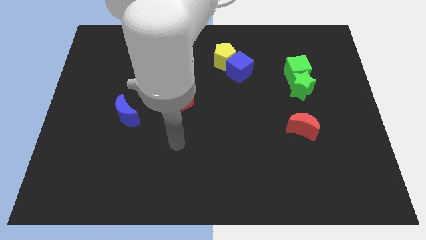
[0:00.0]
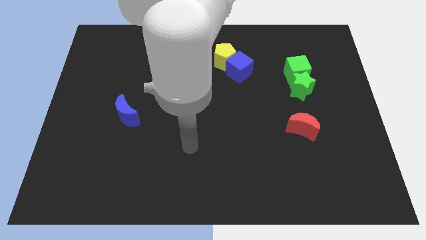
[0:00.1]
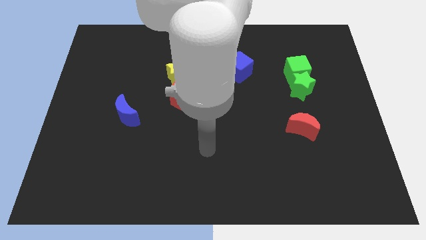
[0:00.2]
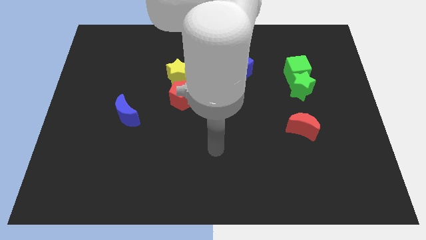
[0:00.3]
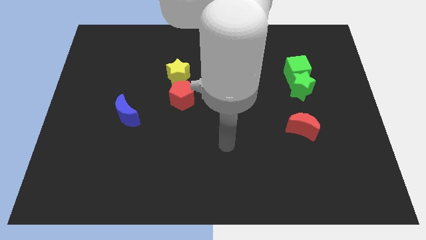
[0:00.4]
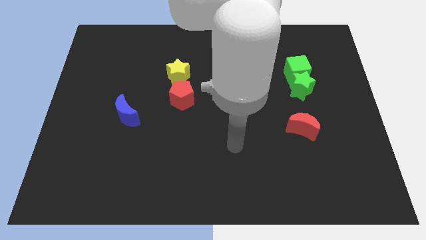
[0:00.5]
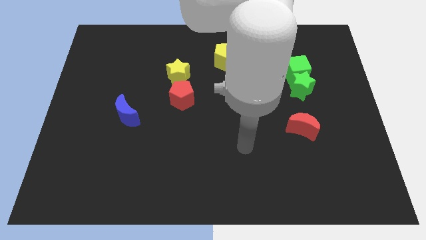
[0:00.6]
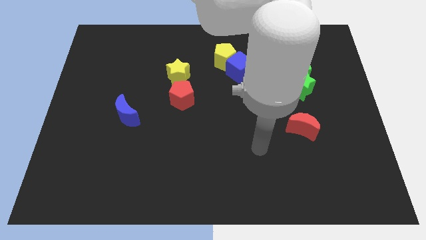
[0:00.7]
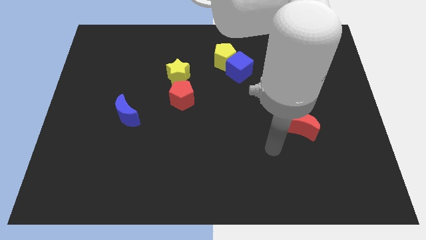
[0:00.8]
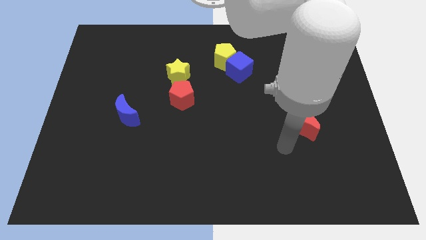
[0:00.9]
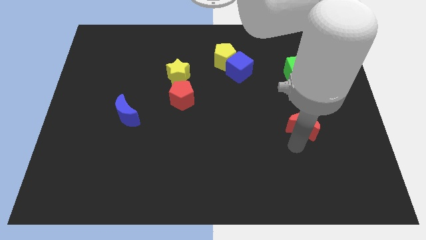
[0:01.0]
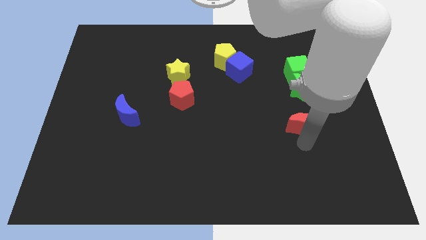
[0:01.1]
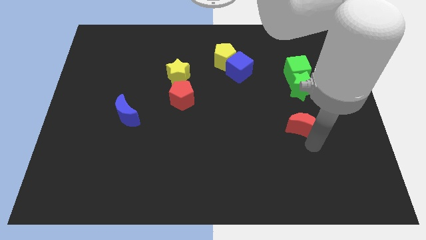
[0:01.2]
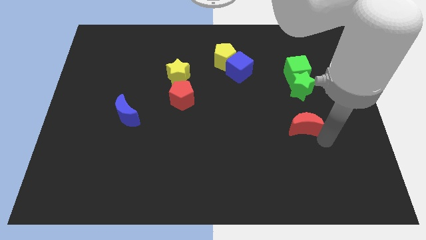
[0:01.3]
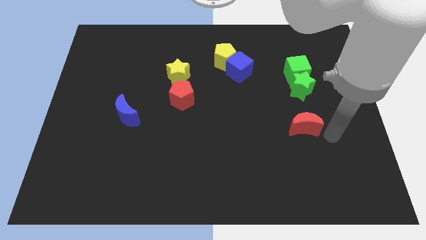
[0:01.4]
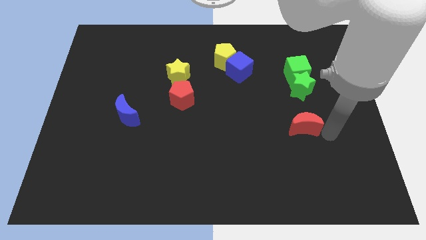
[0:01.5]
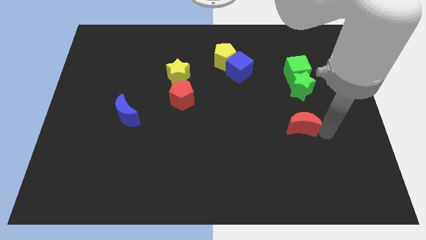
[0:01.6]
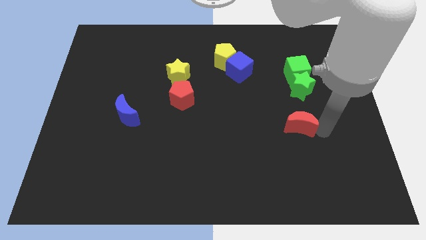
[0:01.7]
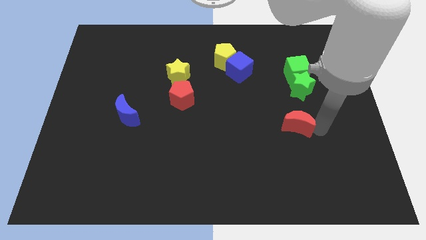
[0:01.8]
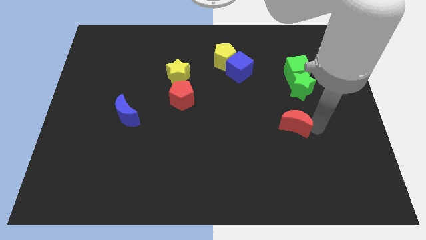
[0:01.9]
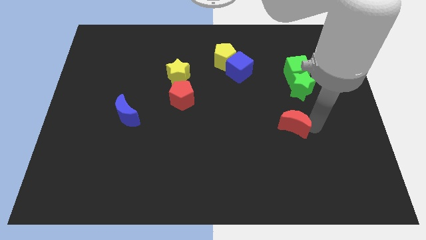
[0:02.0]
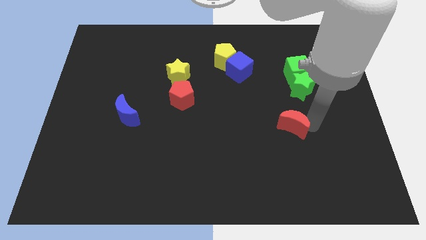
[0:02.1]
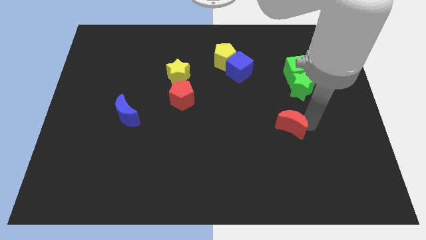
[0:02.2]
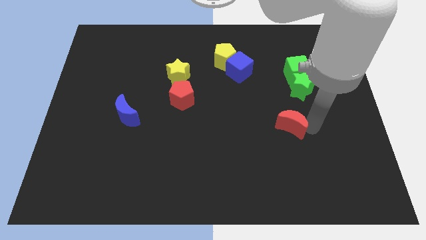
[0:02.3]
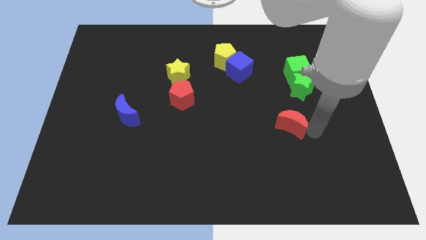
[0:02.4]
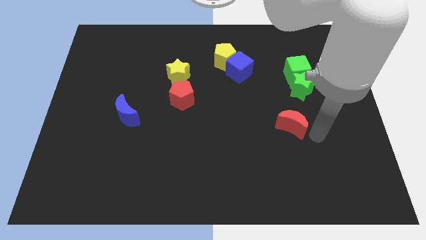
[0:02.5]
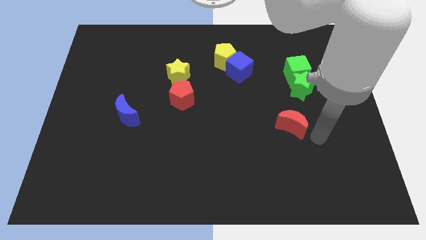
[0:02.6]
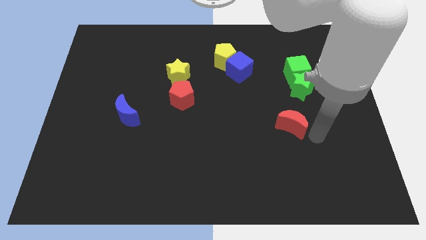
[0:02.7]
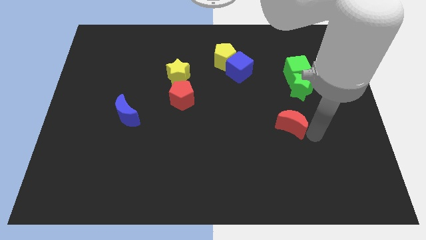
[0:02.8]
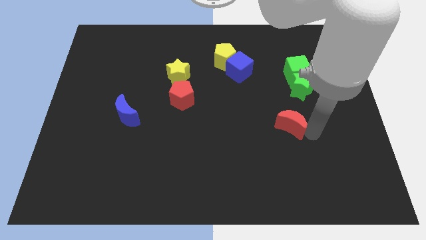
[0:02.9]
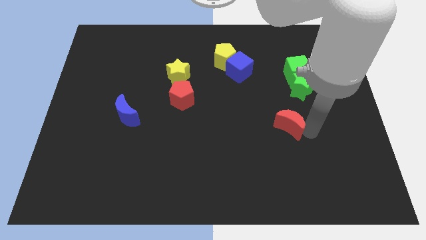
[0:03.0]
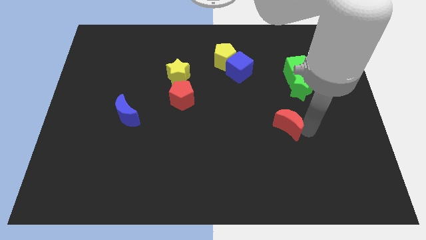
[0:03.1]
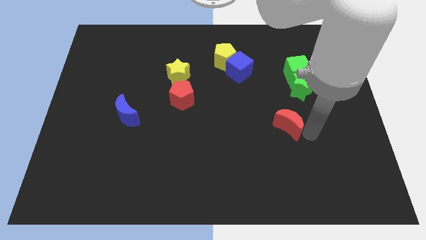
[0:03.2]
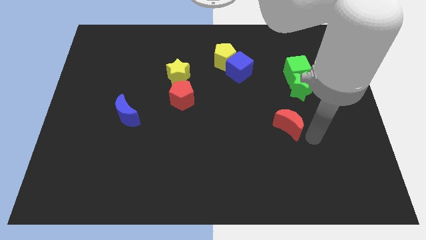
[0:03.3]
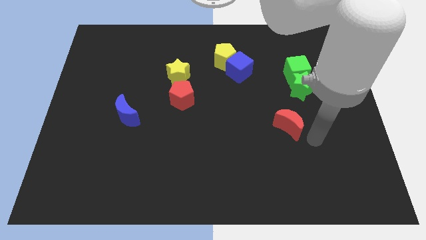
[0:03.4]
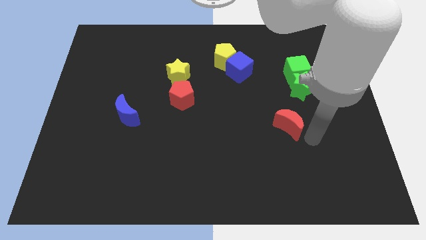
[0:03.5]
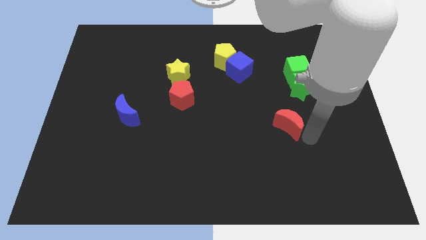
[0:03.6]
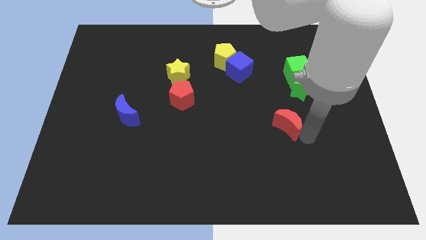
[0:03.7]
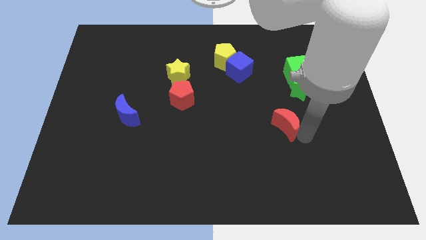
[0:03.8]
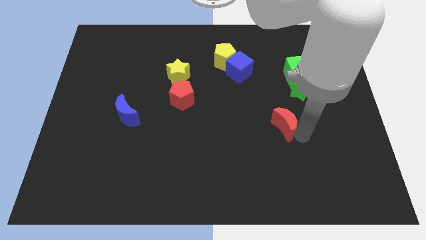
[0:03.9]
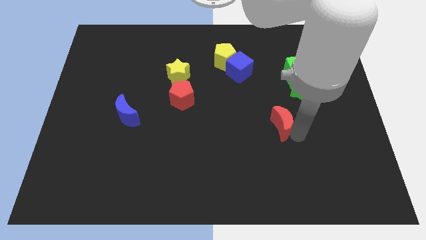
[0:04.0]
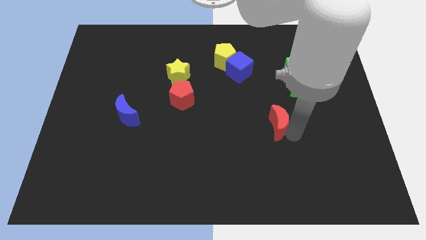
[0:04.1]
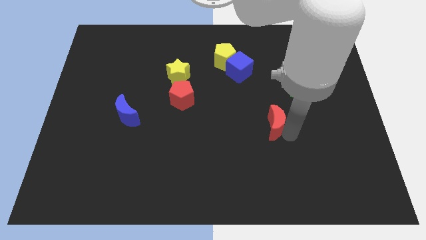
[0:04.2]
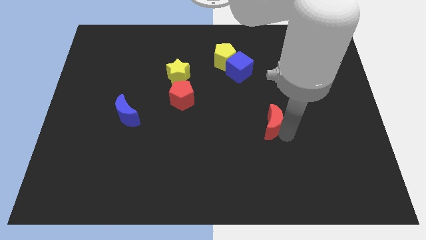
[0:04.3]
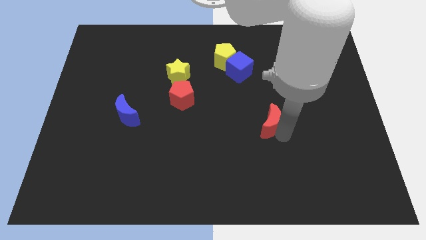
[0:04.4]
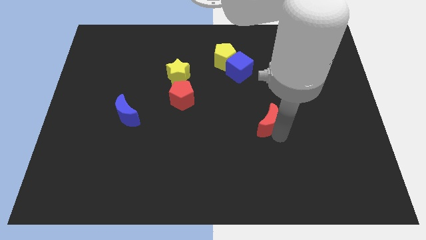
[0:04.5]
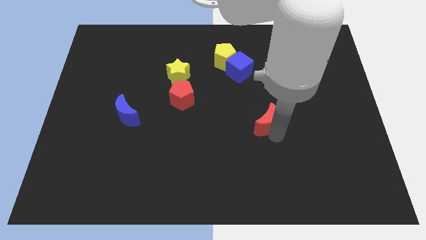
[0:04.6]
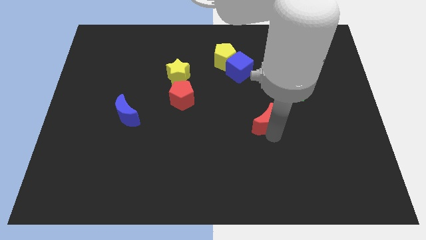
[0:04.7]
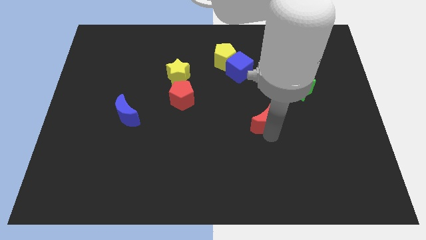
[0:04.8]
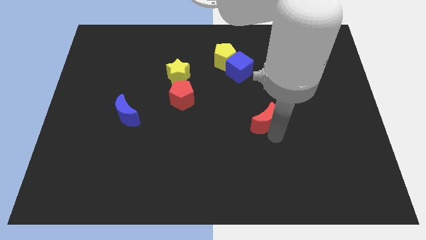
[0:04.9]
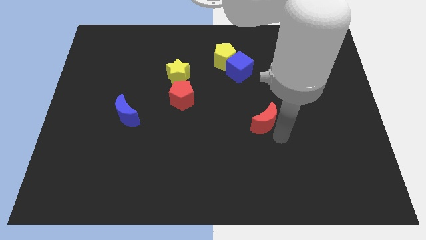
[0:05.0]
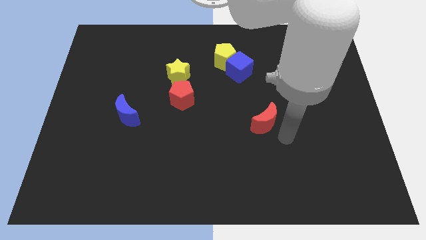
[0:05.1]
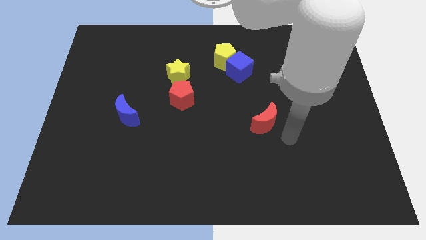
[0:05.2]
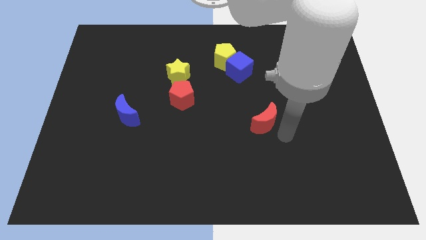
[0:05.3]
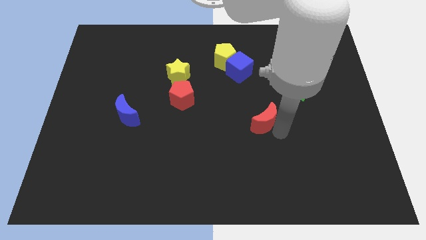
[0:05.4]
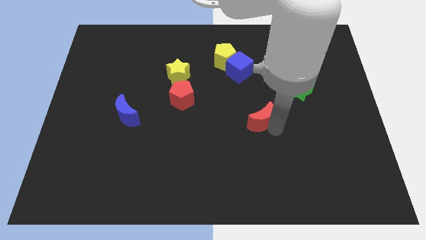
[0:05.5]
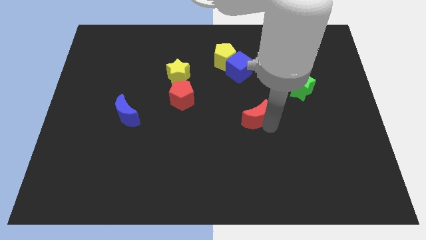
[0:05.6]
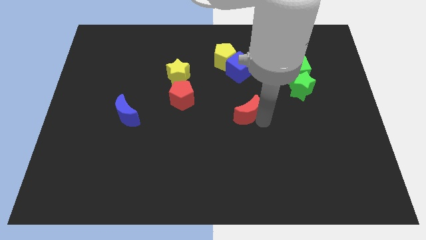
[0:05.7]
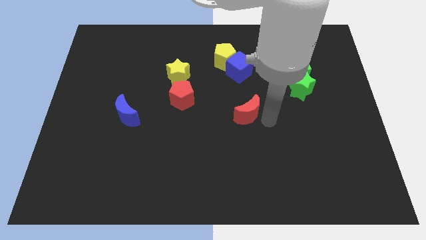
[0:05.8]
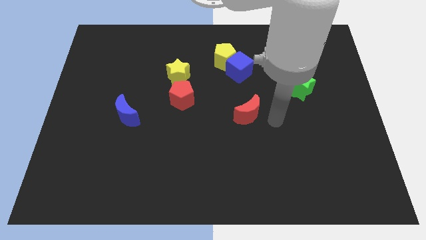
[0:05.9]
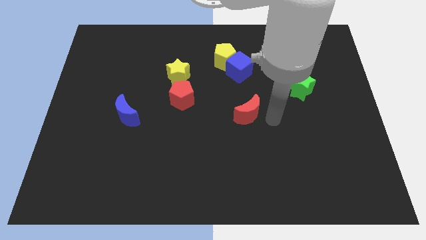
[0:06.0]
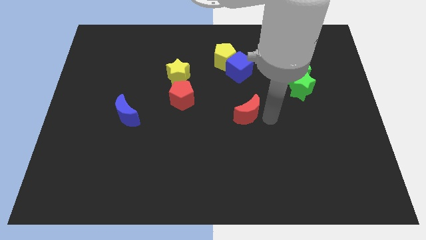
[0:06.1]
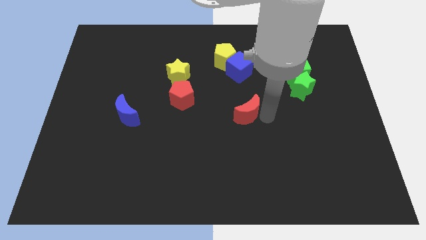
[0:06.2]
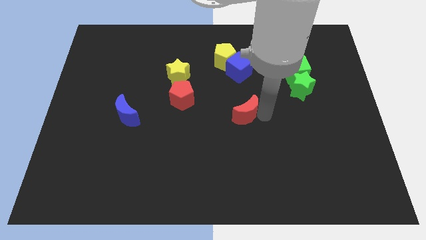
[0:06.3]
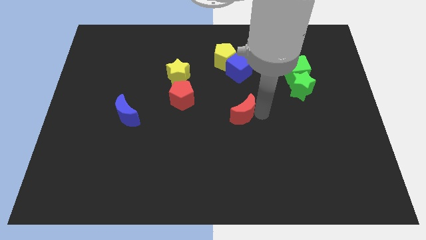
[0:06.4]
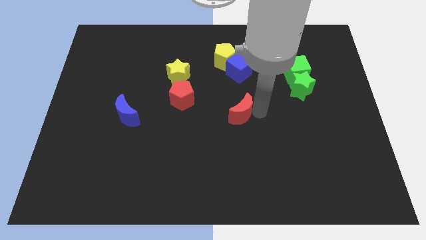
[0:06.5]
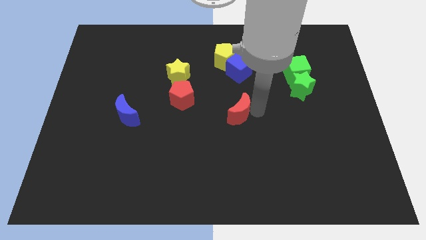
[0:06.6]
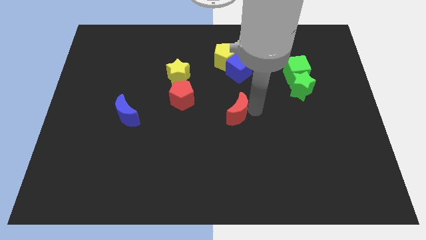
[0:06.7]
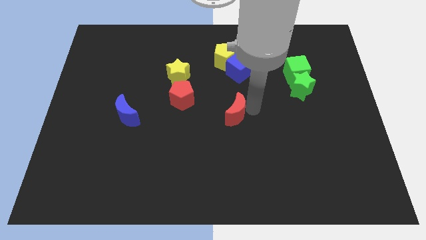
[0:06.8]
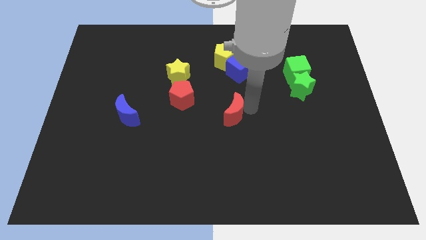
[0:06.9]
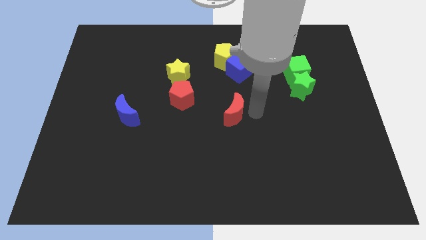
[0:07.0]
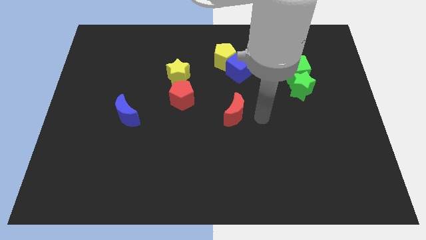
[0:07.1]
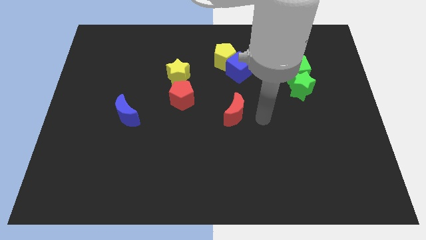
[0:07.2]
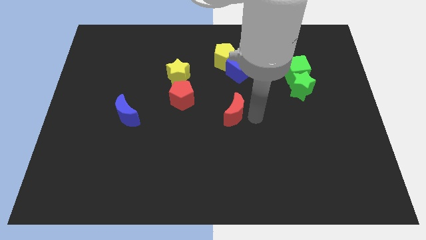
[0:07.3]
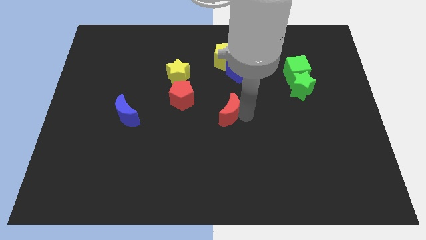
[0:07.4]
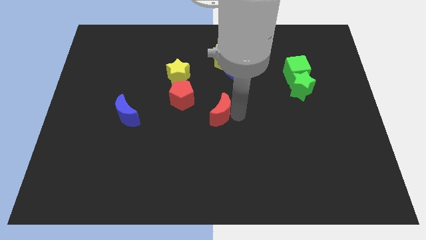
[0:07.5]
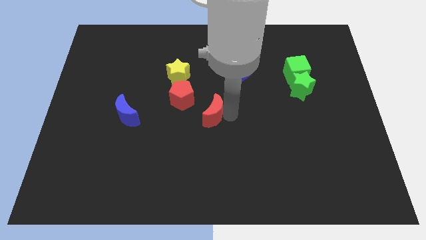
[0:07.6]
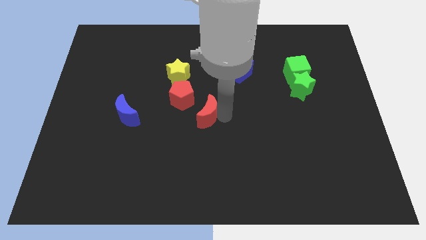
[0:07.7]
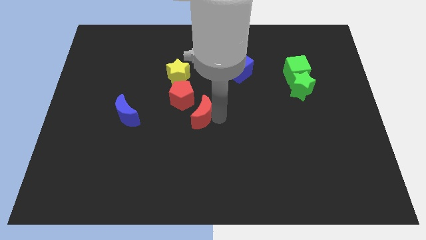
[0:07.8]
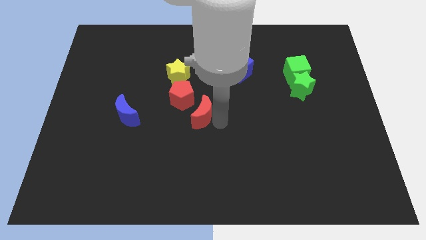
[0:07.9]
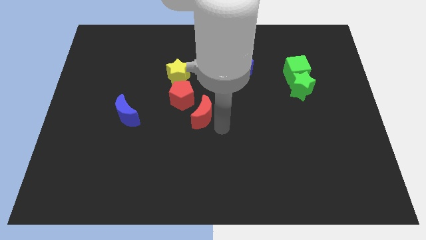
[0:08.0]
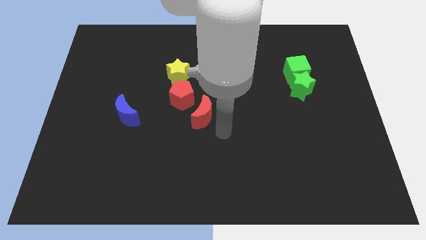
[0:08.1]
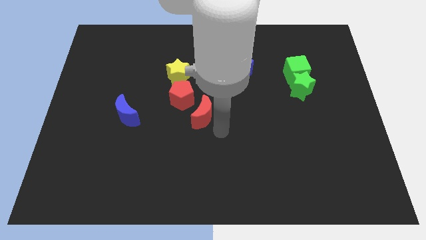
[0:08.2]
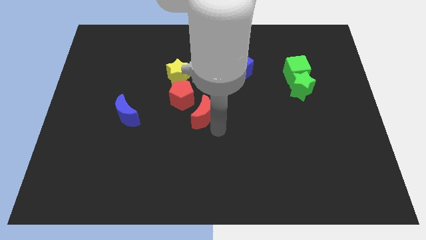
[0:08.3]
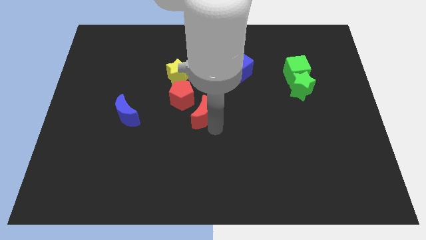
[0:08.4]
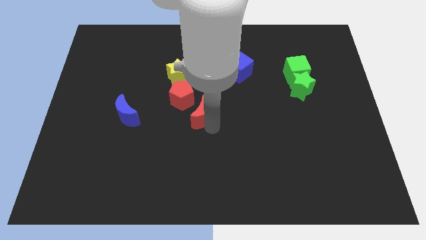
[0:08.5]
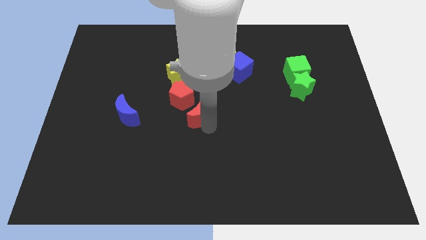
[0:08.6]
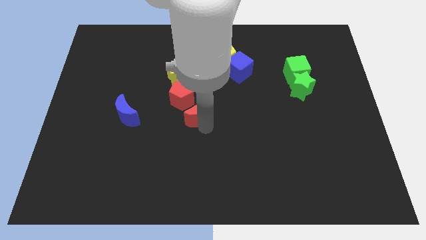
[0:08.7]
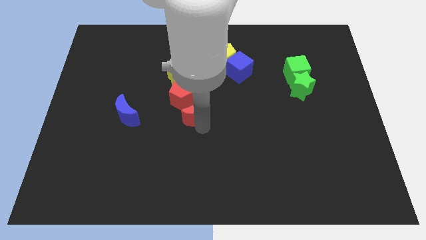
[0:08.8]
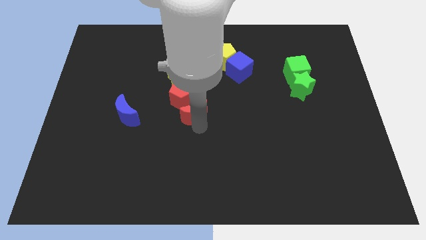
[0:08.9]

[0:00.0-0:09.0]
slide the red moon towards the red pentagon
